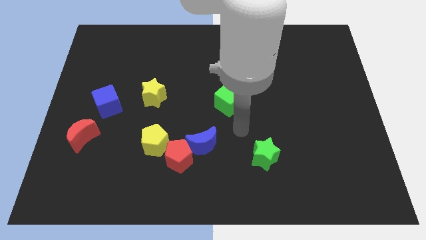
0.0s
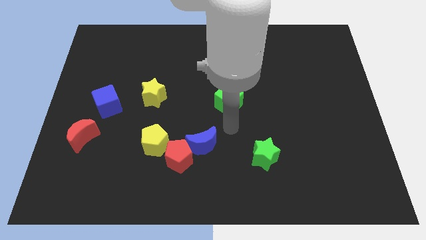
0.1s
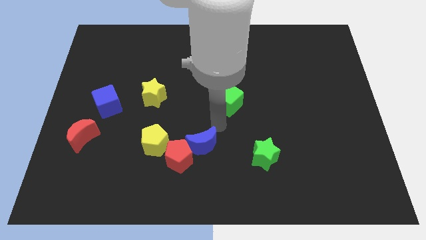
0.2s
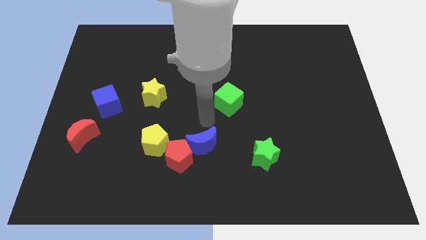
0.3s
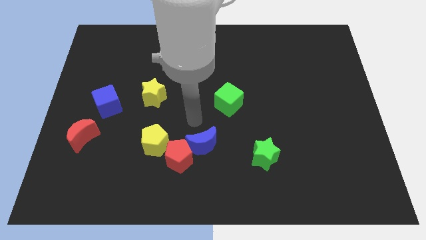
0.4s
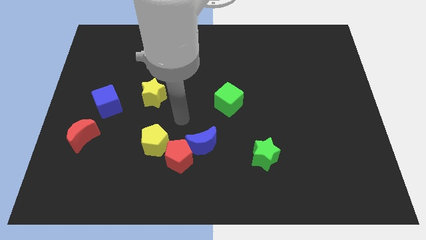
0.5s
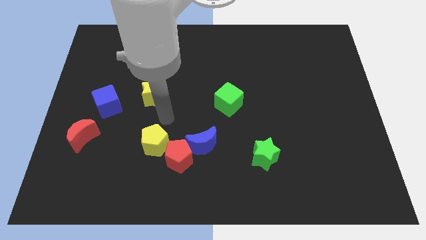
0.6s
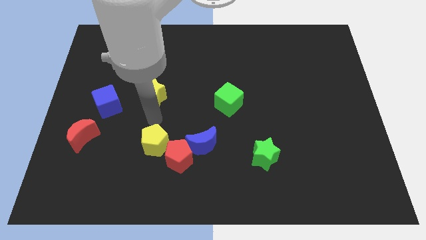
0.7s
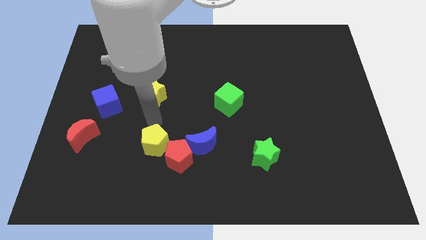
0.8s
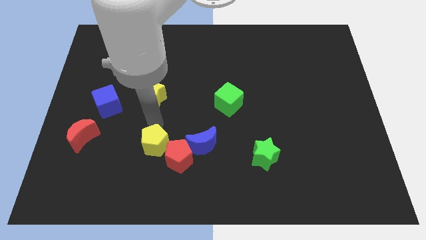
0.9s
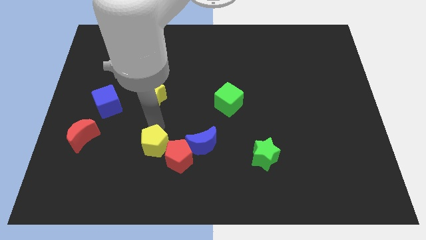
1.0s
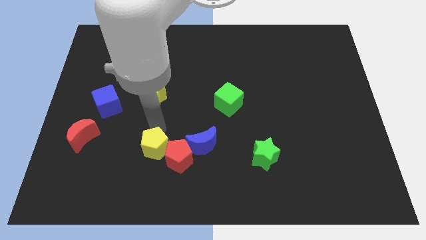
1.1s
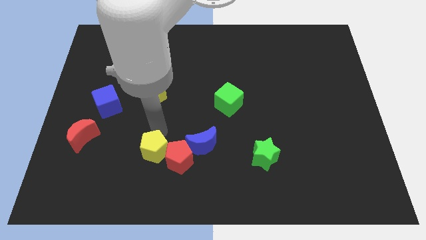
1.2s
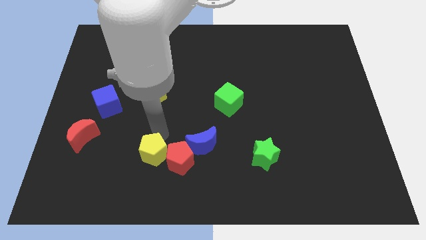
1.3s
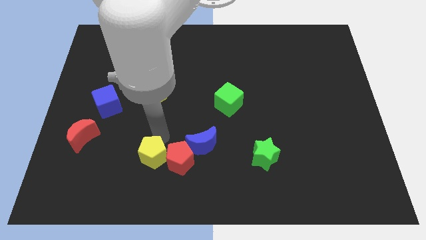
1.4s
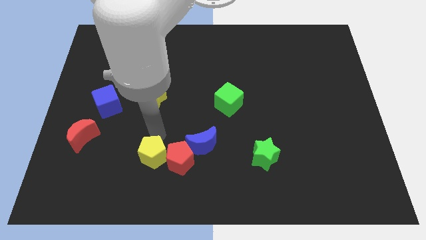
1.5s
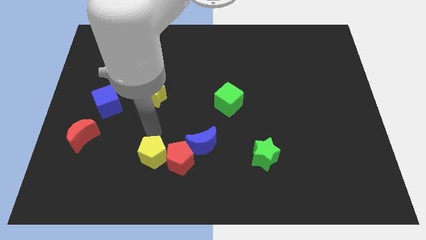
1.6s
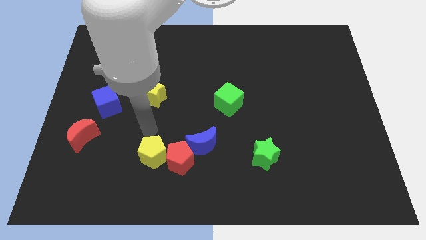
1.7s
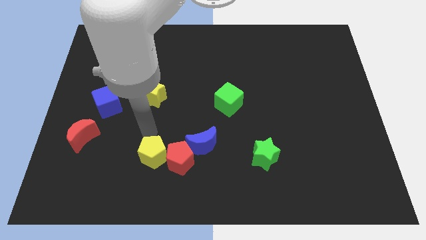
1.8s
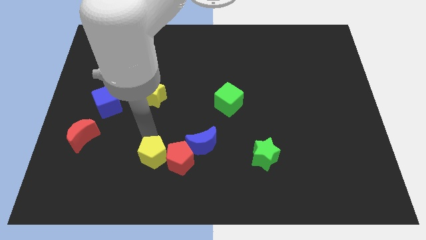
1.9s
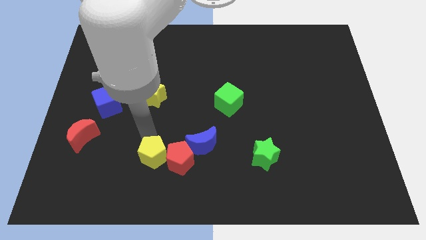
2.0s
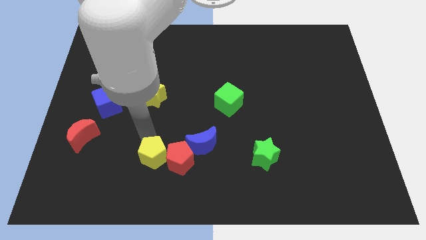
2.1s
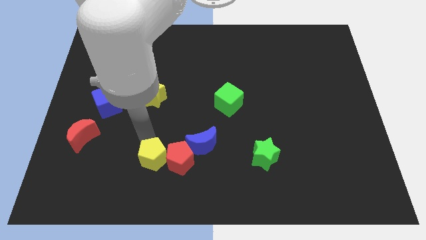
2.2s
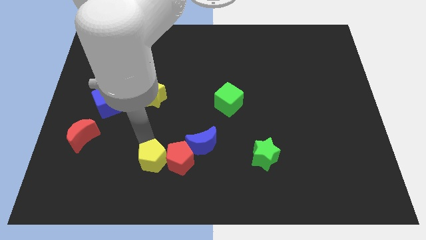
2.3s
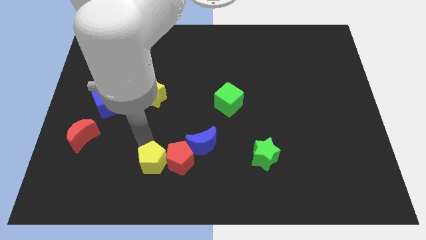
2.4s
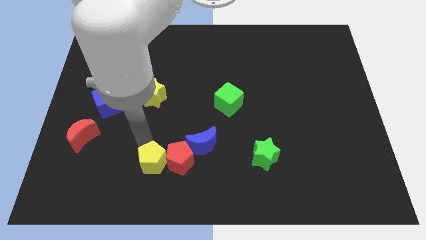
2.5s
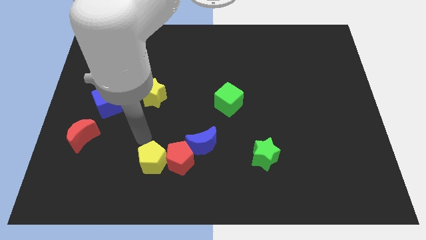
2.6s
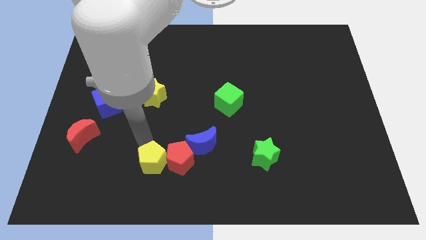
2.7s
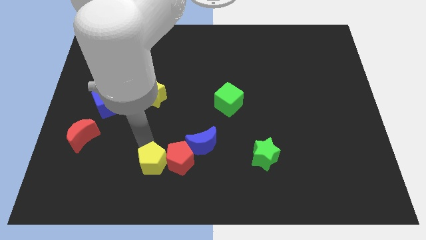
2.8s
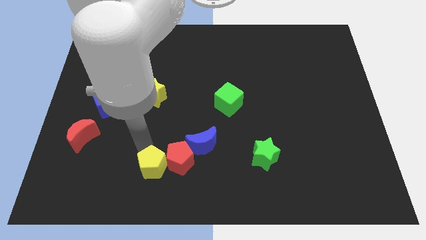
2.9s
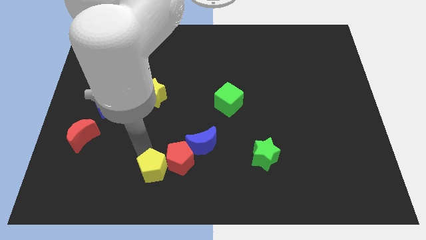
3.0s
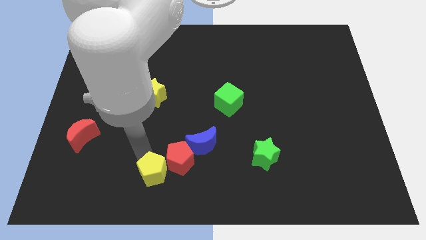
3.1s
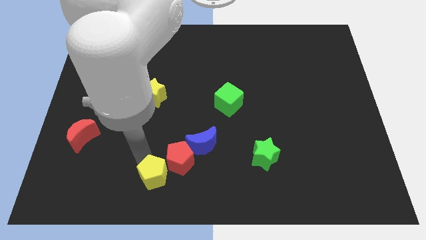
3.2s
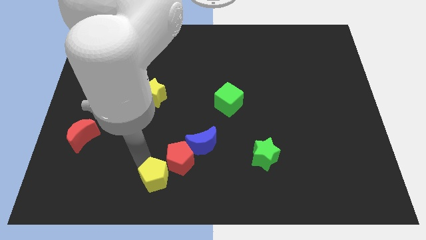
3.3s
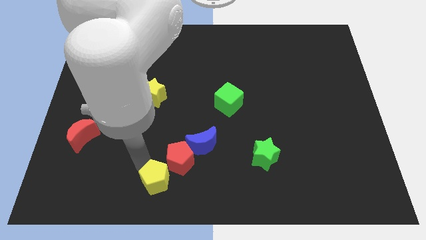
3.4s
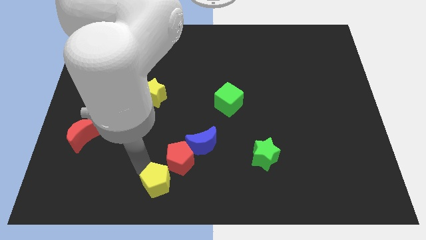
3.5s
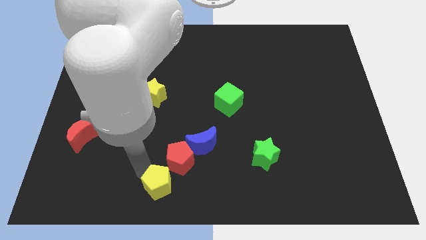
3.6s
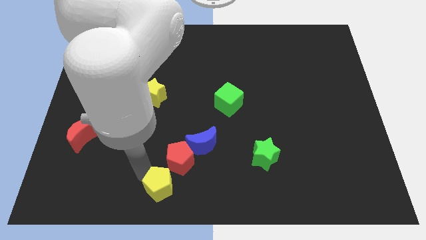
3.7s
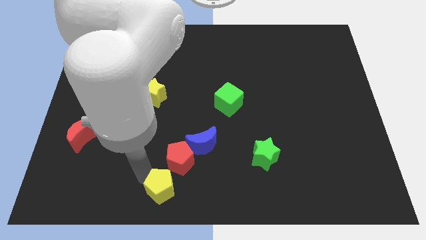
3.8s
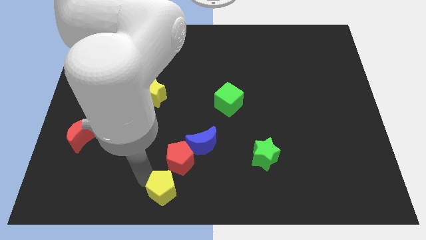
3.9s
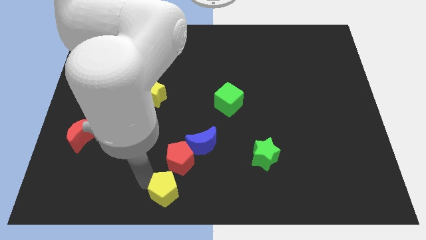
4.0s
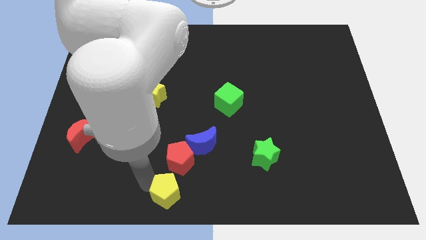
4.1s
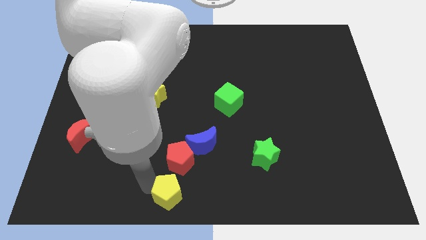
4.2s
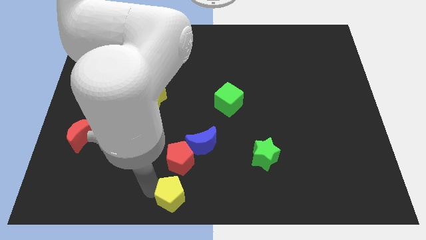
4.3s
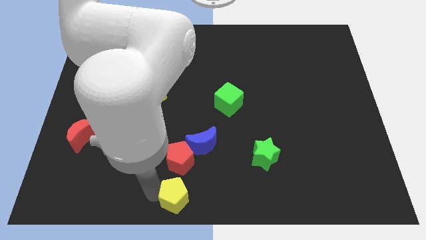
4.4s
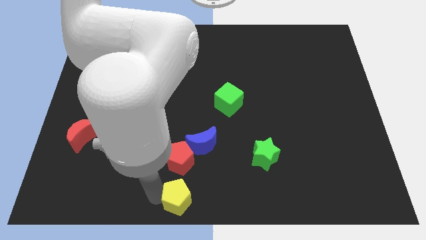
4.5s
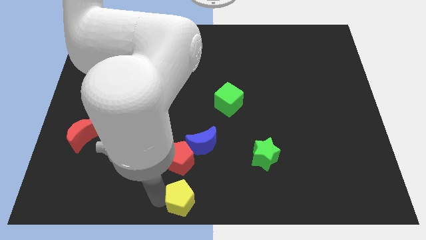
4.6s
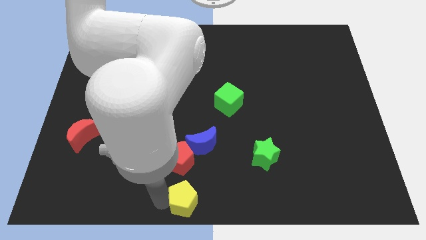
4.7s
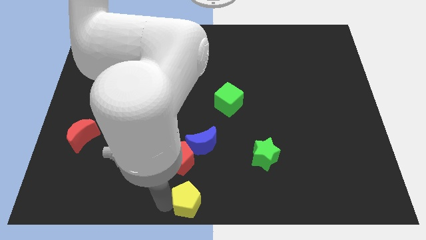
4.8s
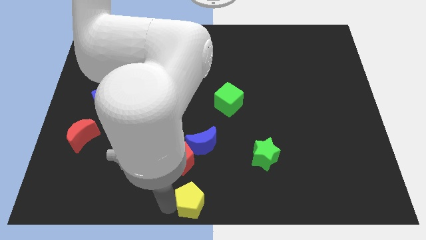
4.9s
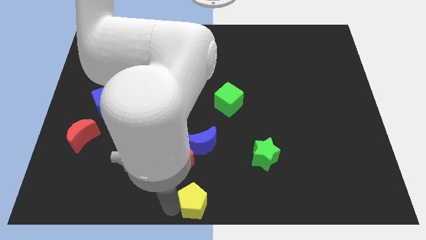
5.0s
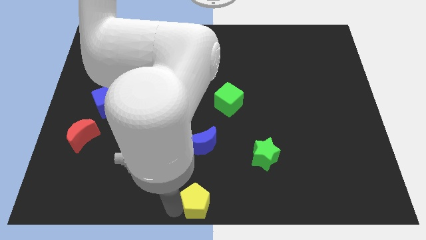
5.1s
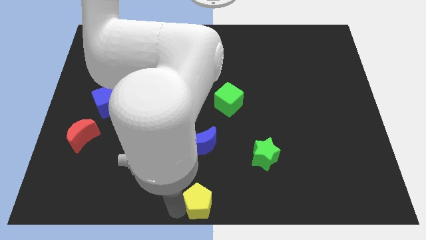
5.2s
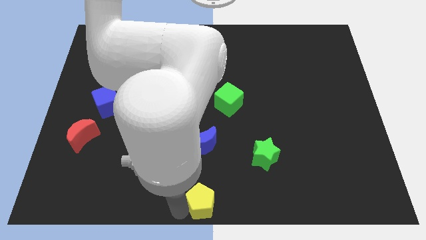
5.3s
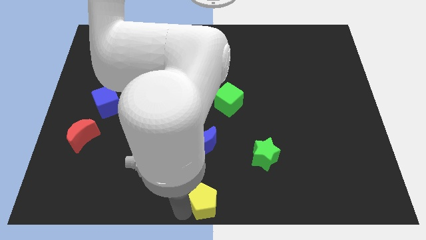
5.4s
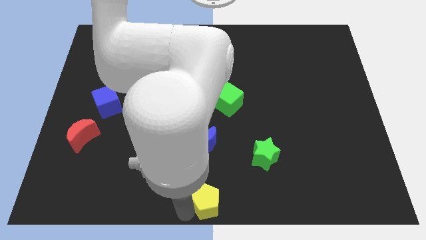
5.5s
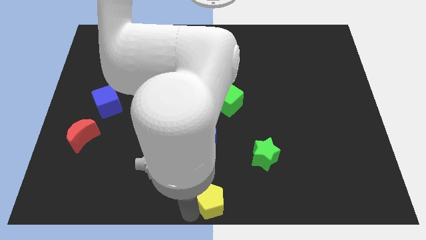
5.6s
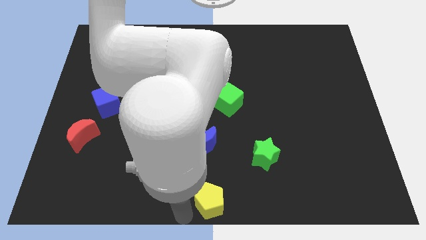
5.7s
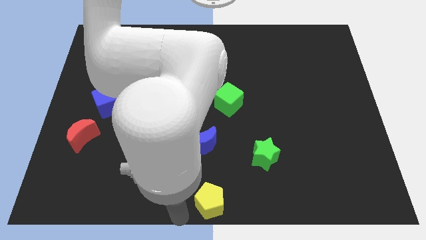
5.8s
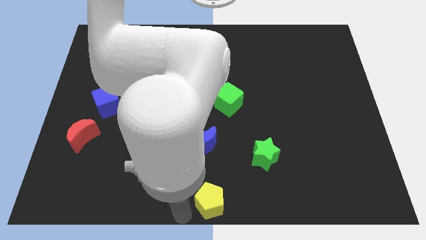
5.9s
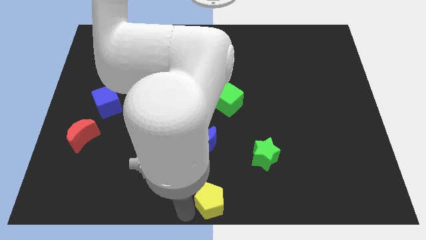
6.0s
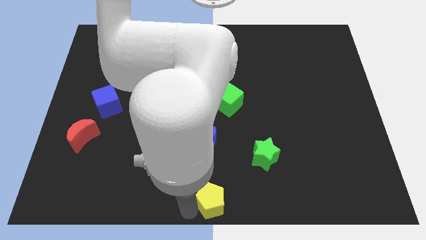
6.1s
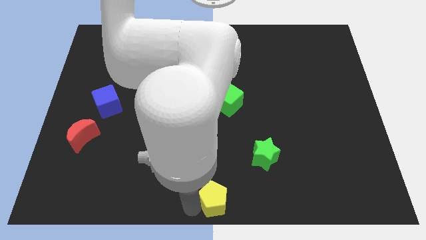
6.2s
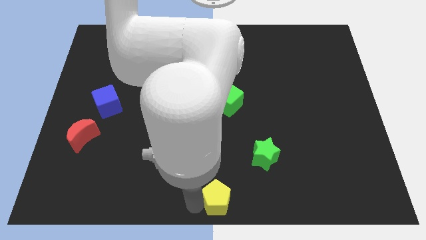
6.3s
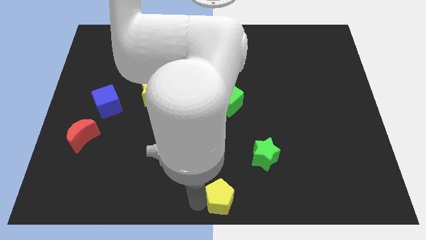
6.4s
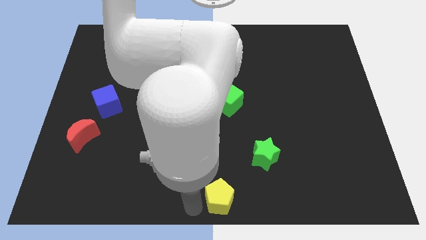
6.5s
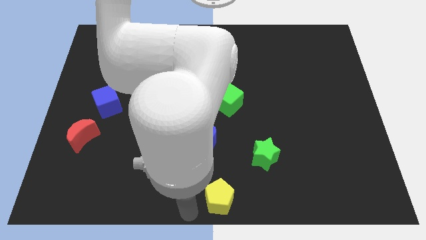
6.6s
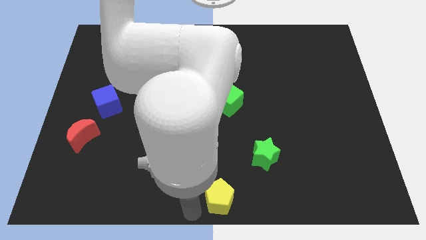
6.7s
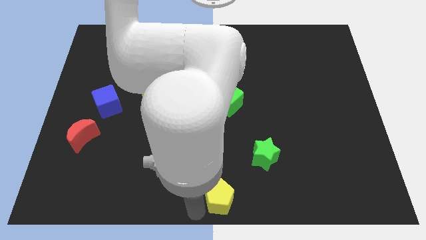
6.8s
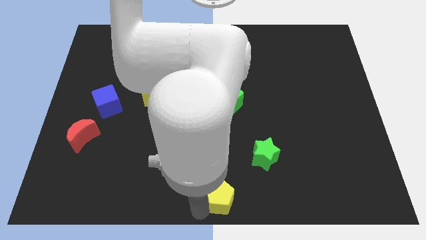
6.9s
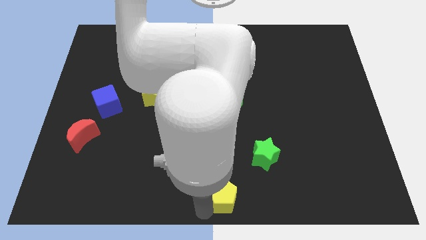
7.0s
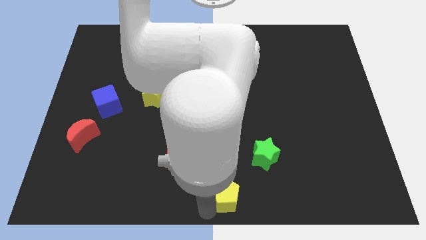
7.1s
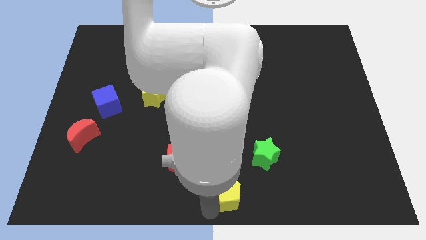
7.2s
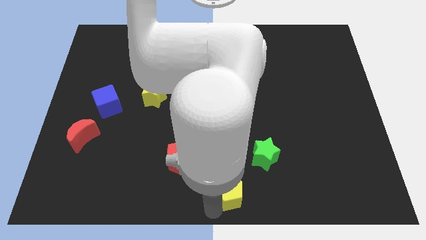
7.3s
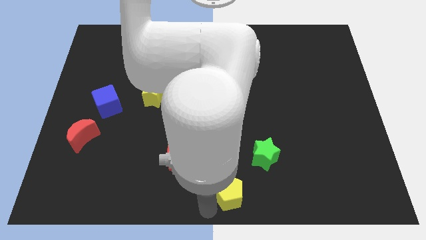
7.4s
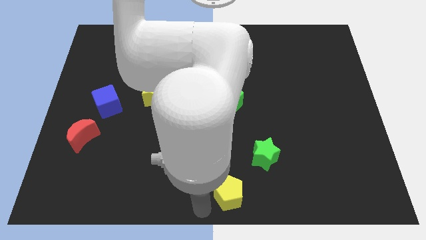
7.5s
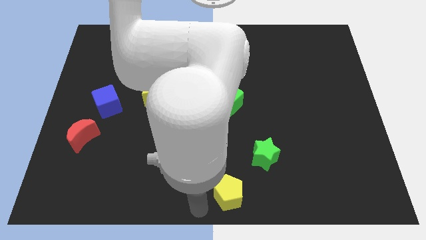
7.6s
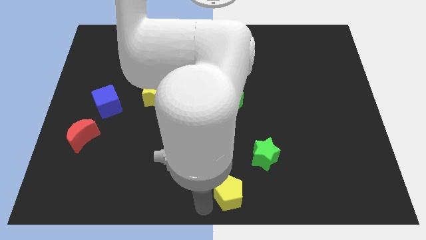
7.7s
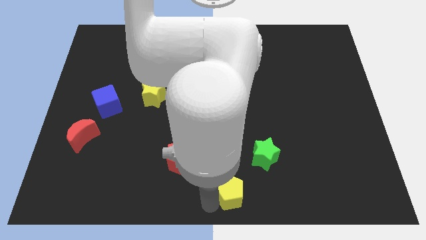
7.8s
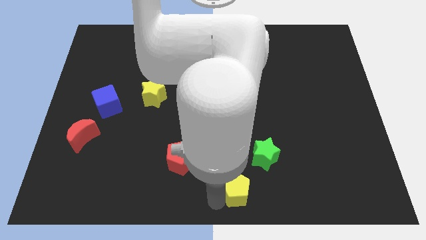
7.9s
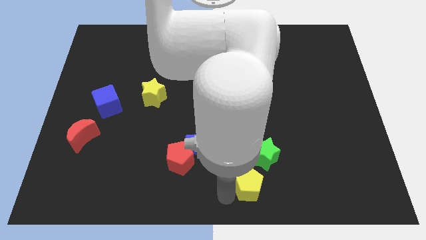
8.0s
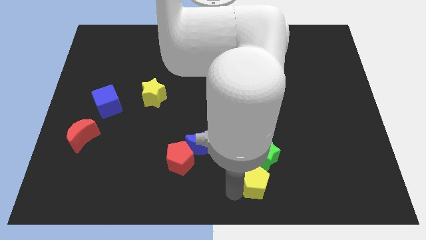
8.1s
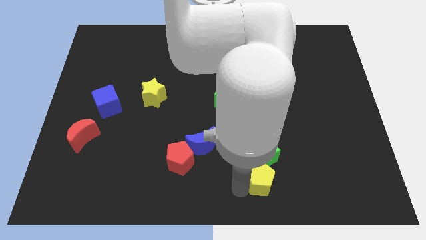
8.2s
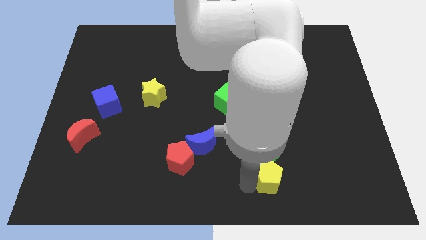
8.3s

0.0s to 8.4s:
push the yellow pentagon to the bottom right of the green star
